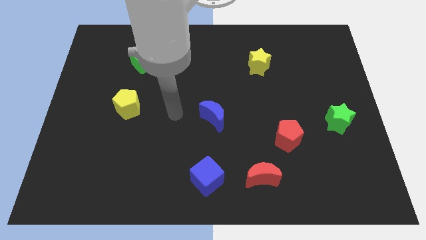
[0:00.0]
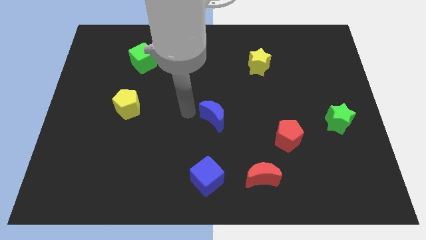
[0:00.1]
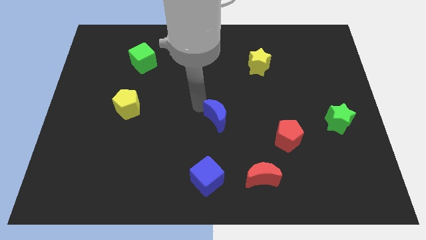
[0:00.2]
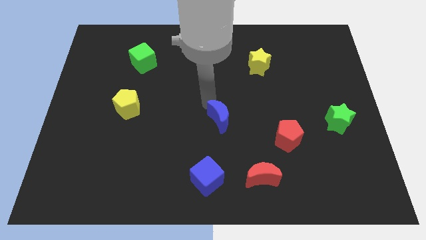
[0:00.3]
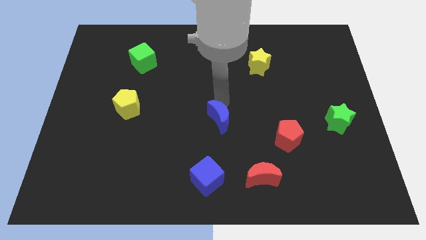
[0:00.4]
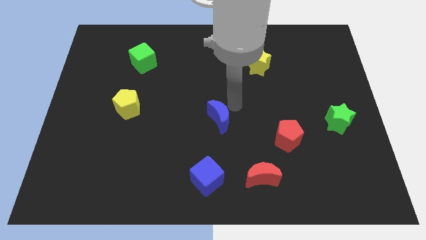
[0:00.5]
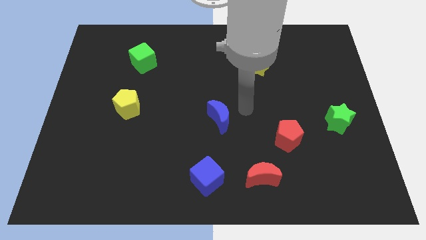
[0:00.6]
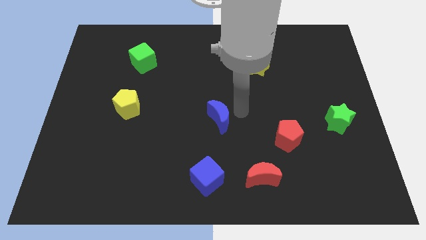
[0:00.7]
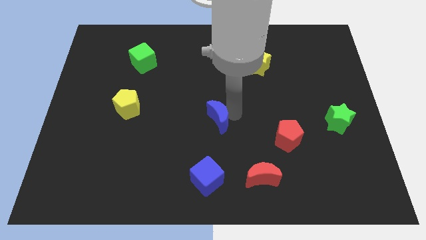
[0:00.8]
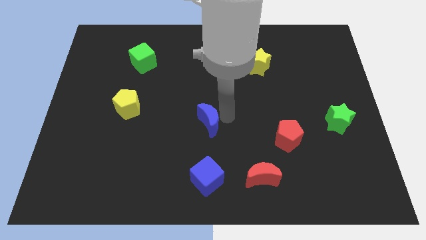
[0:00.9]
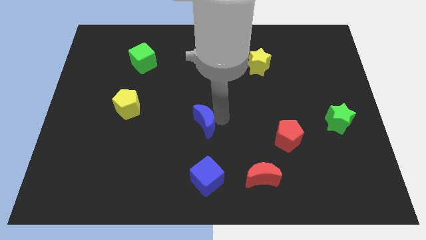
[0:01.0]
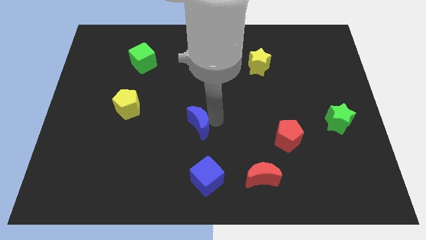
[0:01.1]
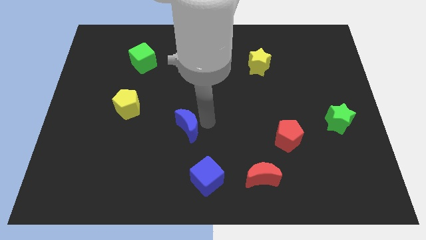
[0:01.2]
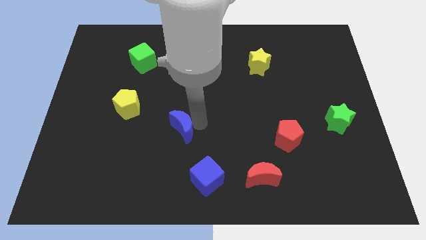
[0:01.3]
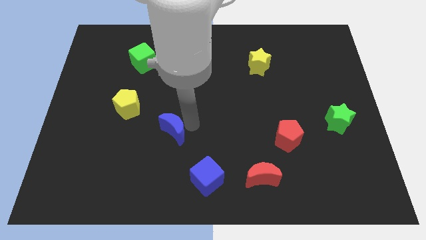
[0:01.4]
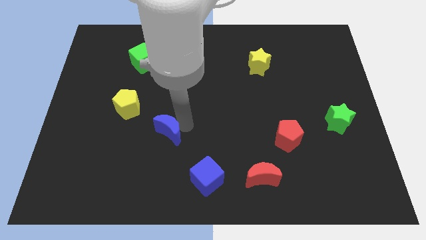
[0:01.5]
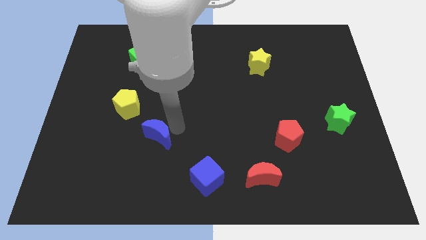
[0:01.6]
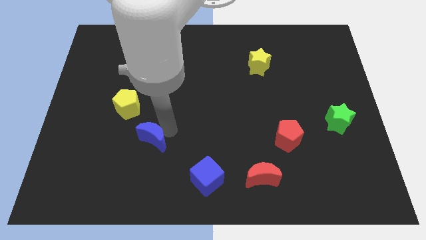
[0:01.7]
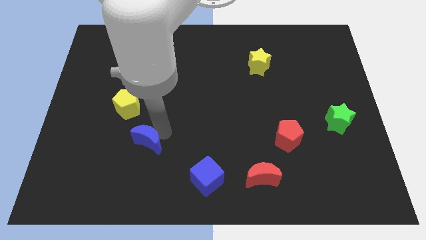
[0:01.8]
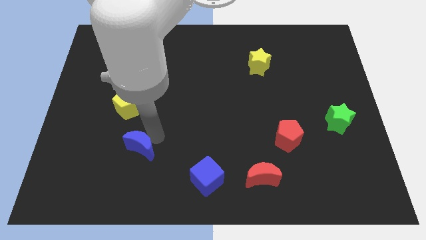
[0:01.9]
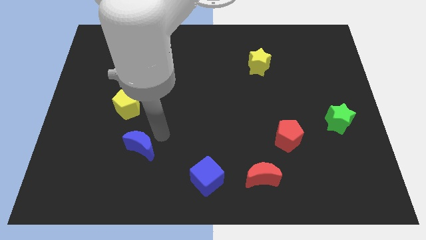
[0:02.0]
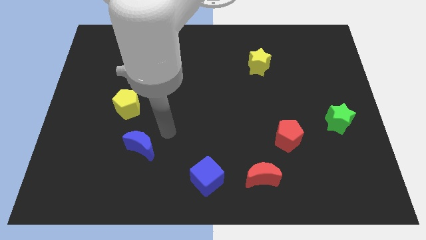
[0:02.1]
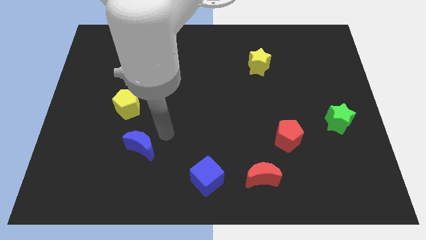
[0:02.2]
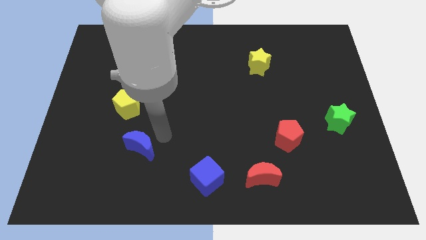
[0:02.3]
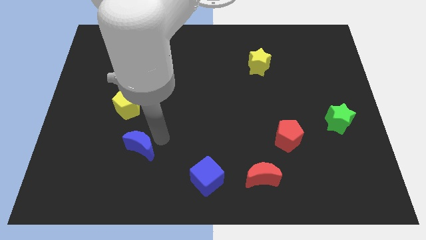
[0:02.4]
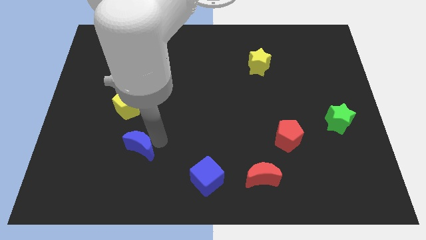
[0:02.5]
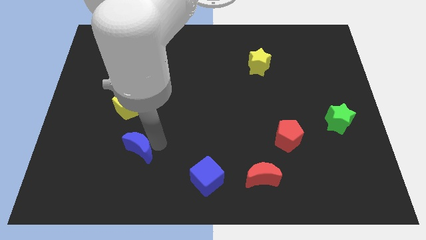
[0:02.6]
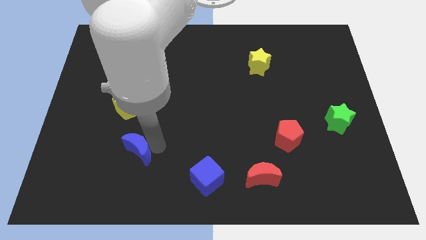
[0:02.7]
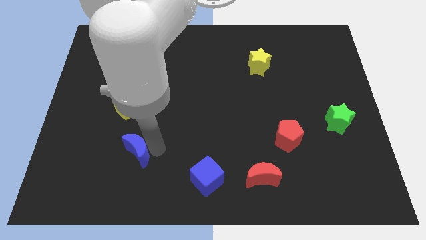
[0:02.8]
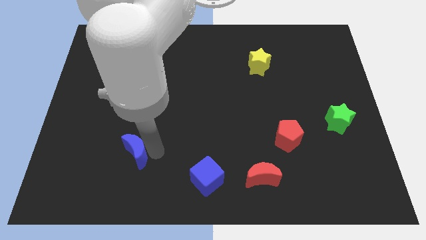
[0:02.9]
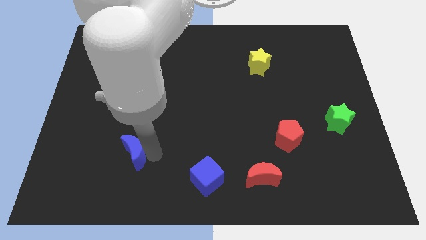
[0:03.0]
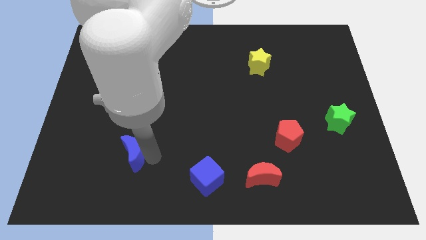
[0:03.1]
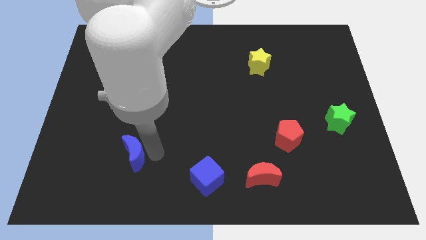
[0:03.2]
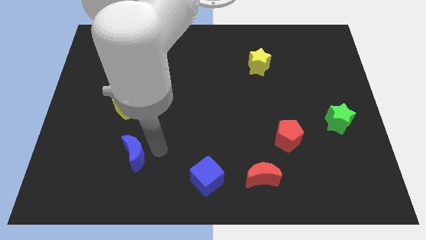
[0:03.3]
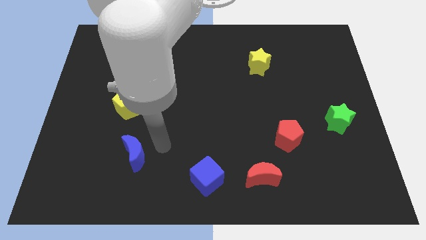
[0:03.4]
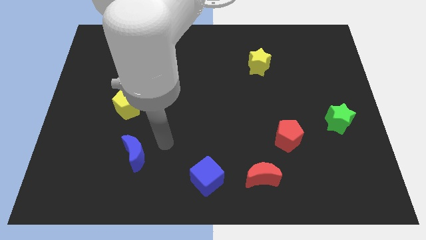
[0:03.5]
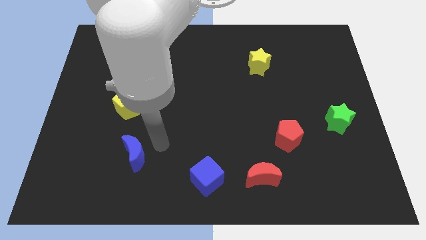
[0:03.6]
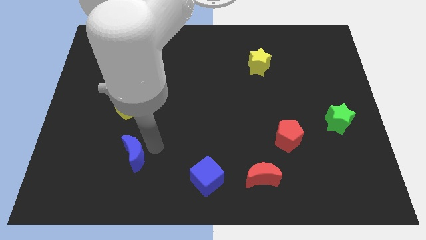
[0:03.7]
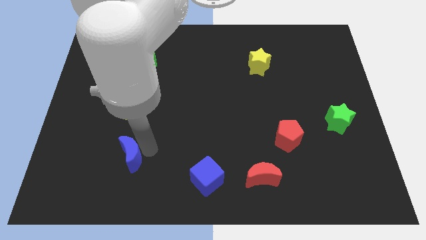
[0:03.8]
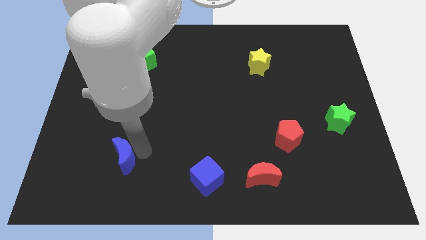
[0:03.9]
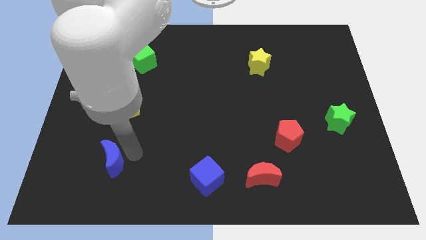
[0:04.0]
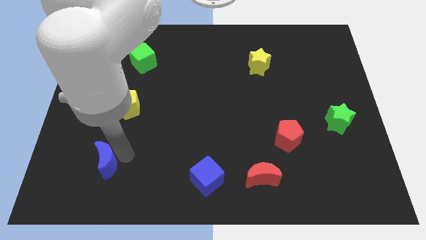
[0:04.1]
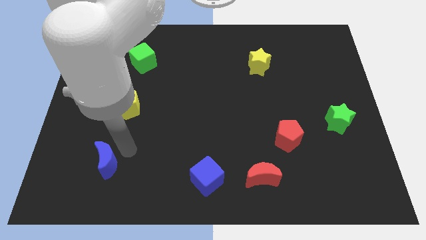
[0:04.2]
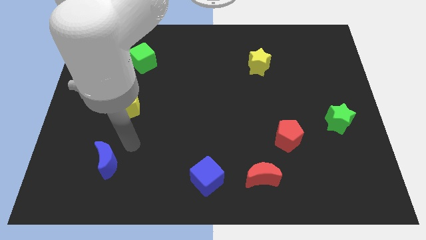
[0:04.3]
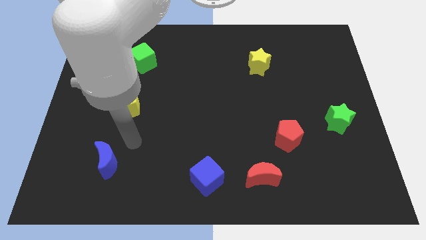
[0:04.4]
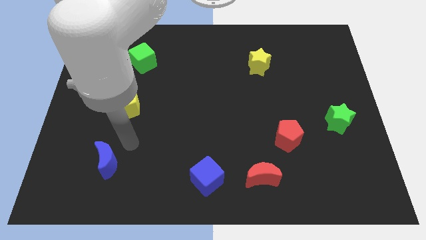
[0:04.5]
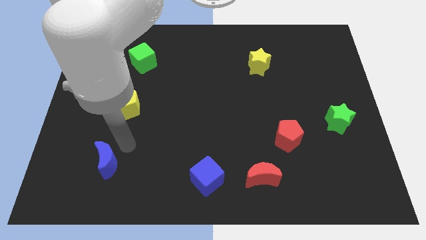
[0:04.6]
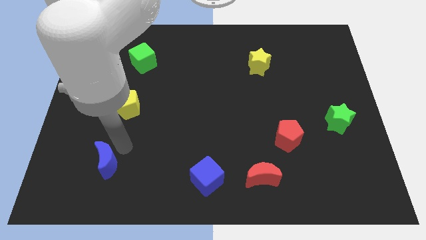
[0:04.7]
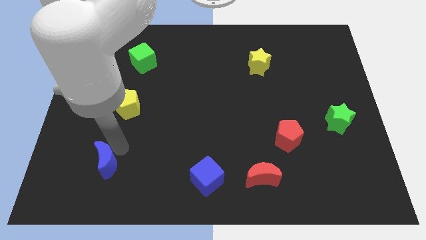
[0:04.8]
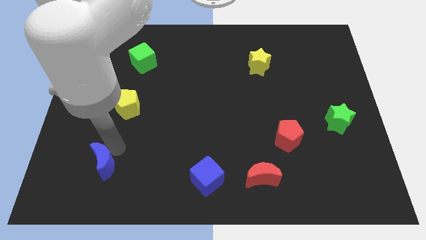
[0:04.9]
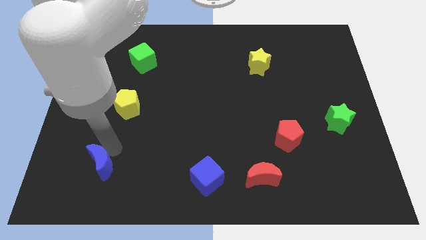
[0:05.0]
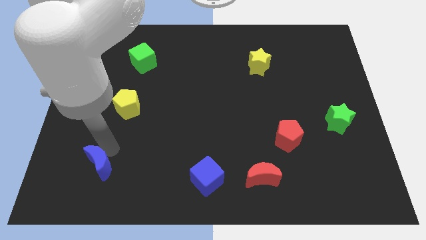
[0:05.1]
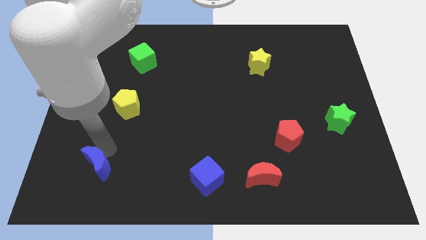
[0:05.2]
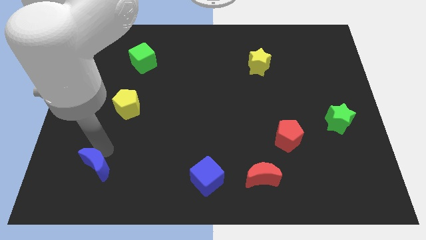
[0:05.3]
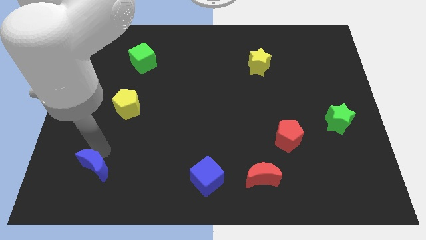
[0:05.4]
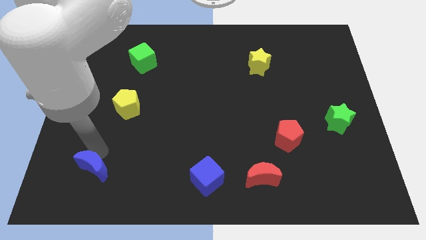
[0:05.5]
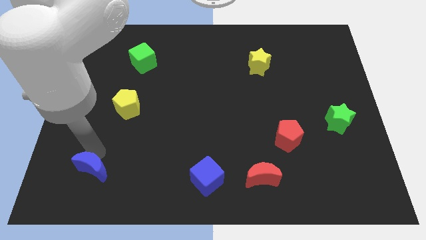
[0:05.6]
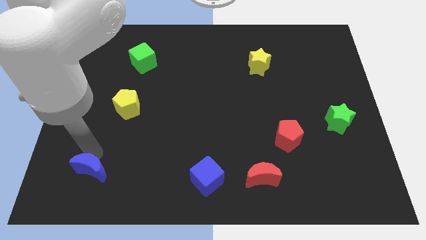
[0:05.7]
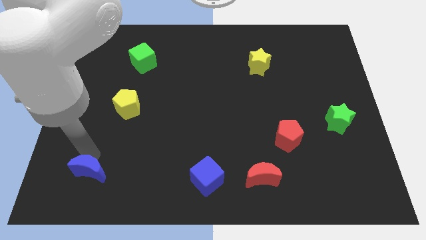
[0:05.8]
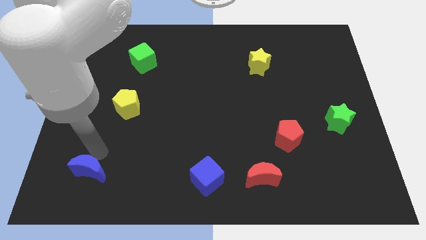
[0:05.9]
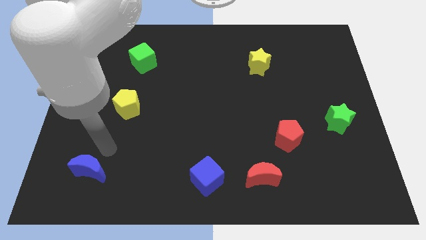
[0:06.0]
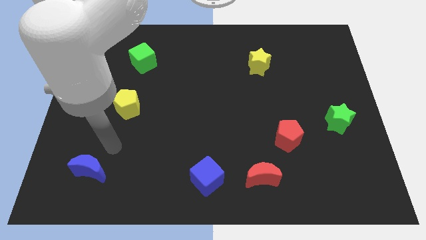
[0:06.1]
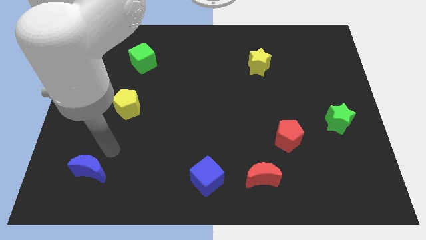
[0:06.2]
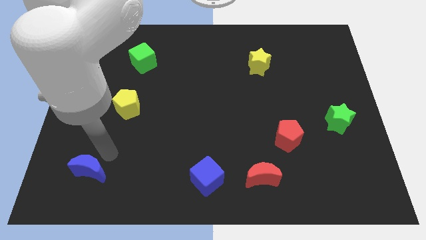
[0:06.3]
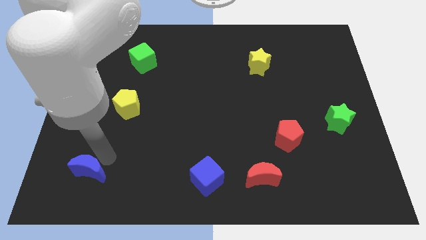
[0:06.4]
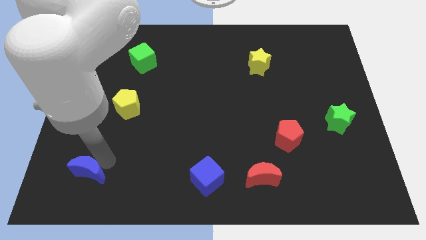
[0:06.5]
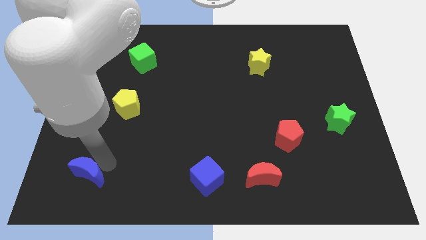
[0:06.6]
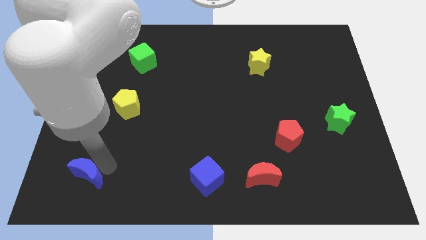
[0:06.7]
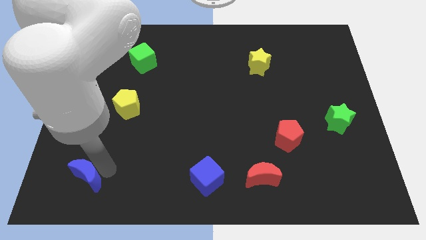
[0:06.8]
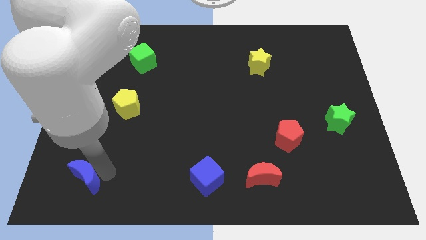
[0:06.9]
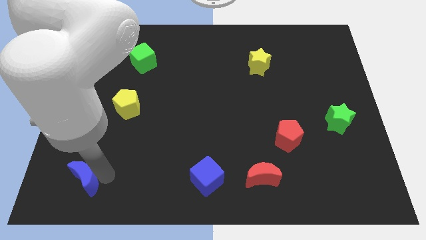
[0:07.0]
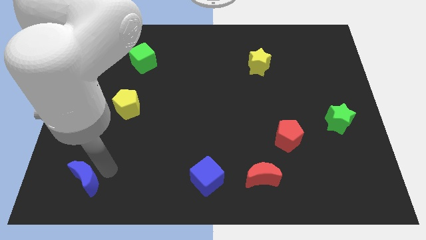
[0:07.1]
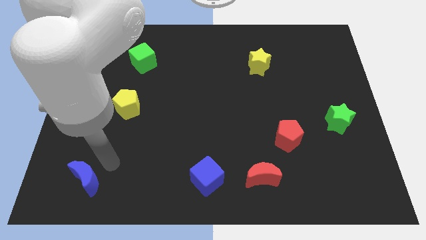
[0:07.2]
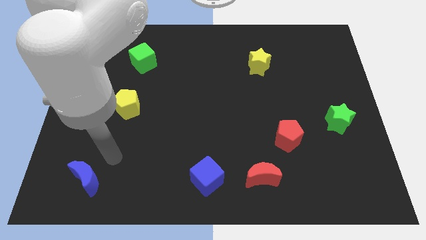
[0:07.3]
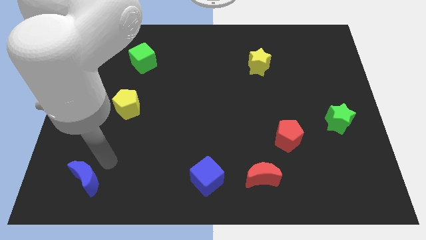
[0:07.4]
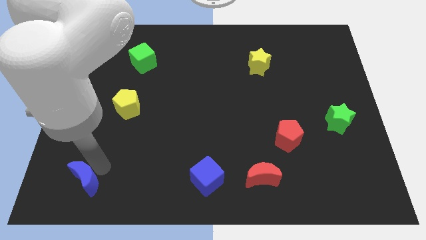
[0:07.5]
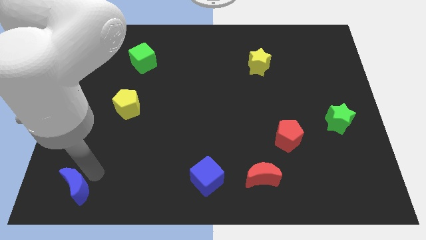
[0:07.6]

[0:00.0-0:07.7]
push the blue moon to the bottom left corner

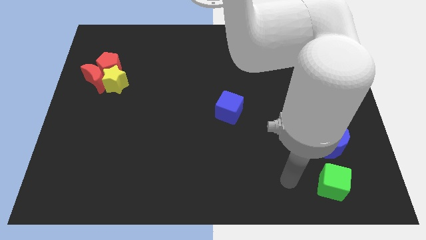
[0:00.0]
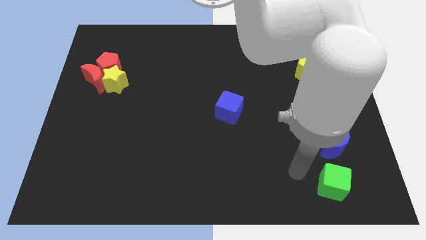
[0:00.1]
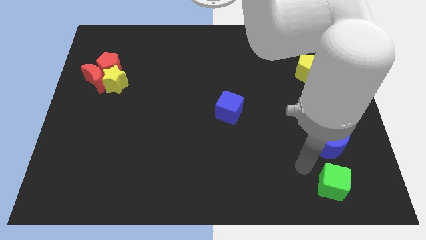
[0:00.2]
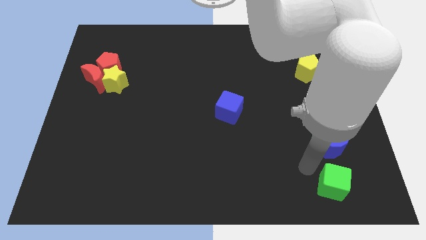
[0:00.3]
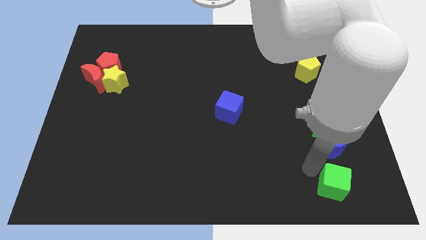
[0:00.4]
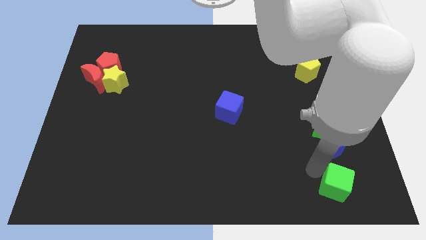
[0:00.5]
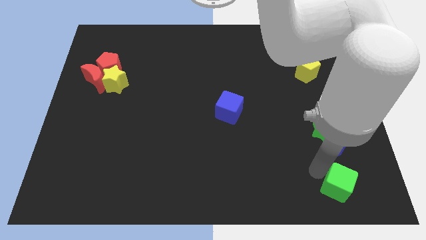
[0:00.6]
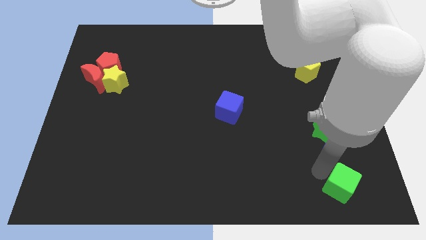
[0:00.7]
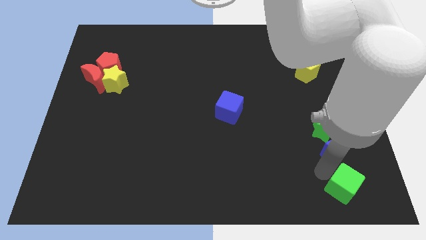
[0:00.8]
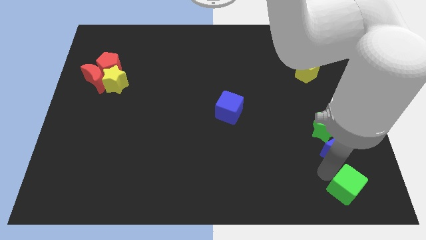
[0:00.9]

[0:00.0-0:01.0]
push the green cube to the bottom right of the board
